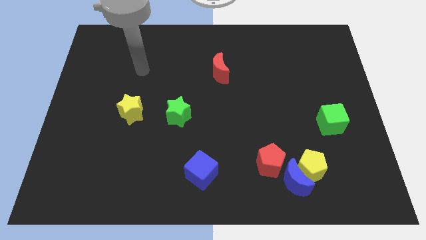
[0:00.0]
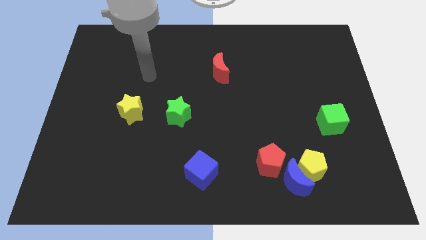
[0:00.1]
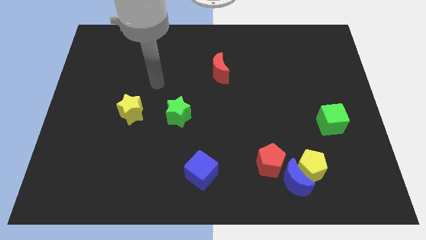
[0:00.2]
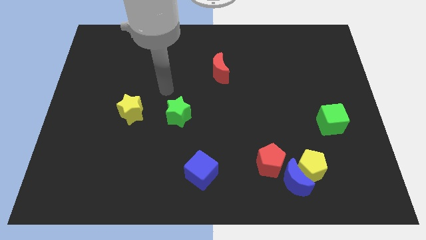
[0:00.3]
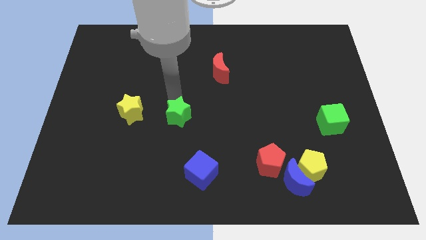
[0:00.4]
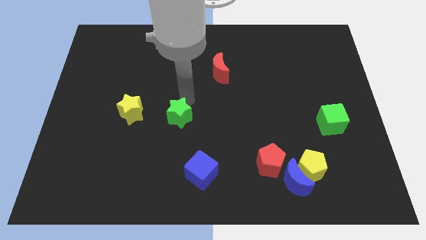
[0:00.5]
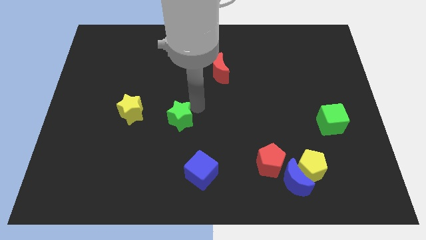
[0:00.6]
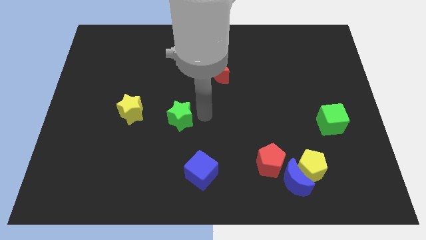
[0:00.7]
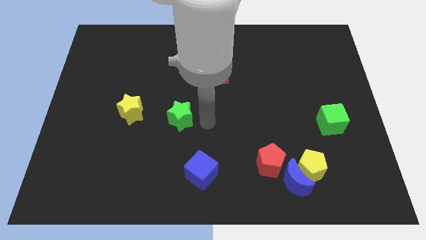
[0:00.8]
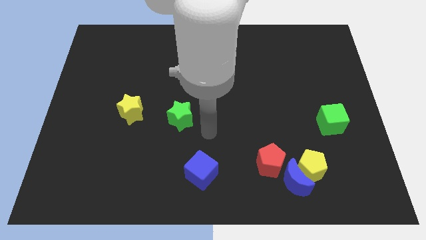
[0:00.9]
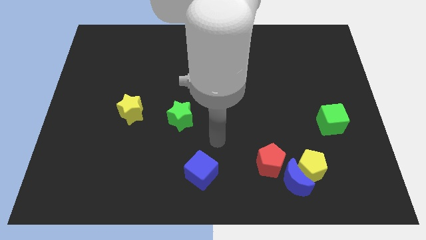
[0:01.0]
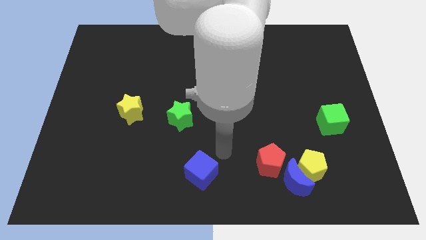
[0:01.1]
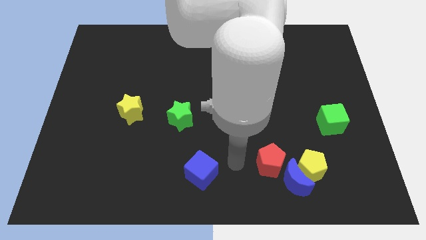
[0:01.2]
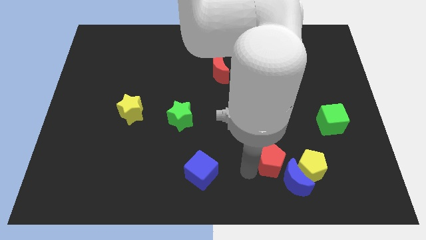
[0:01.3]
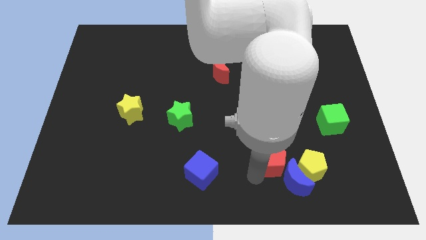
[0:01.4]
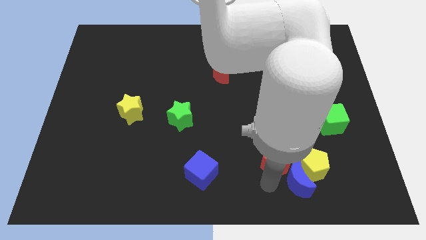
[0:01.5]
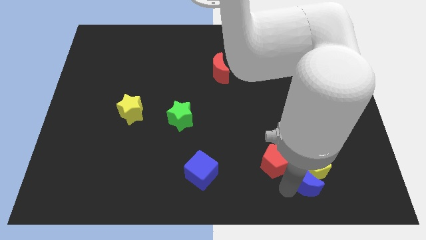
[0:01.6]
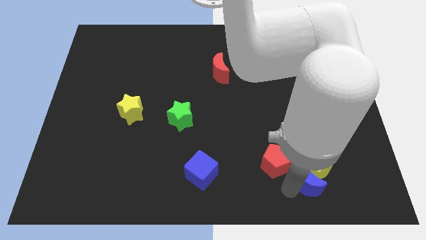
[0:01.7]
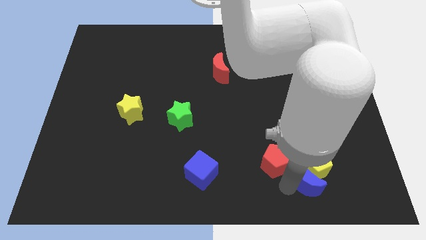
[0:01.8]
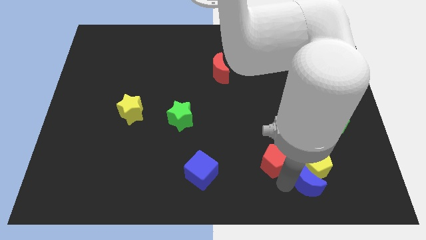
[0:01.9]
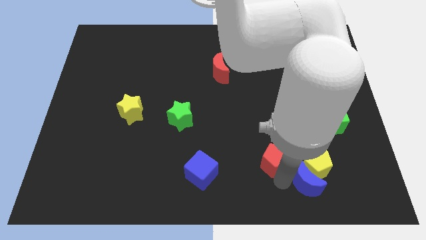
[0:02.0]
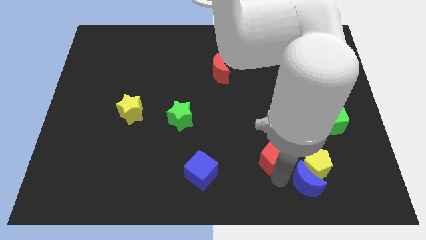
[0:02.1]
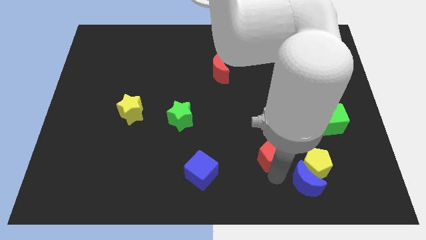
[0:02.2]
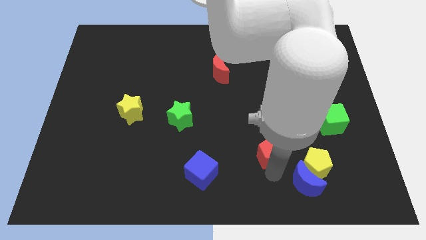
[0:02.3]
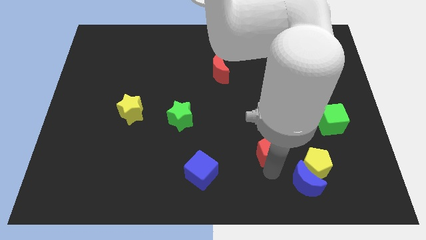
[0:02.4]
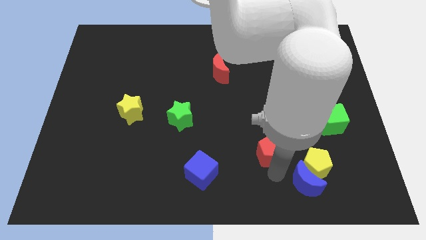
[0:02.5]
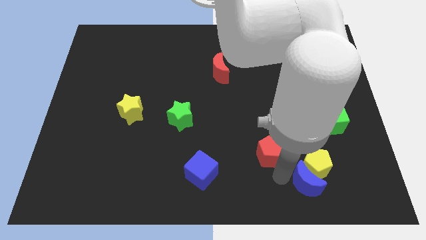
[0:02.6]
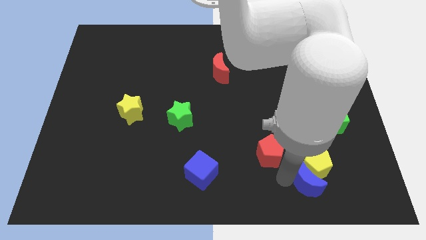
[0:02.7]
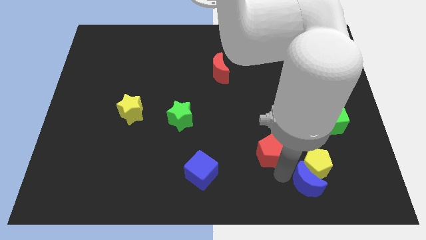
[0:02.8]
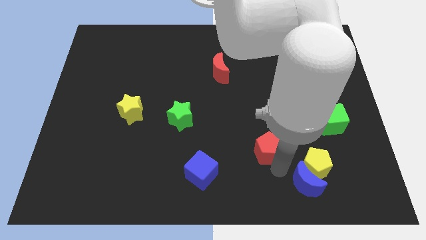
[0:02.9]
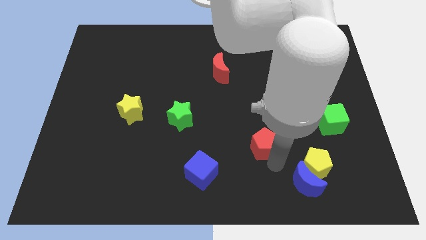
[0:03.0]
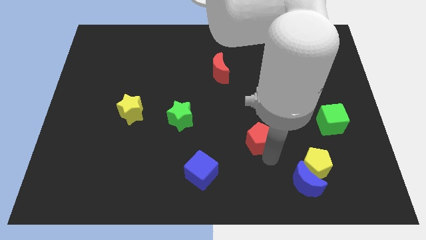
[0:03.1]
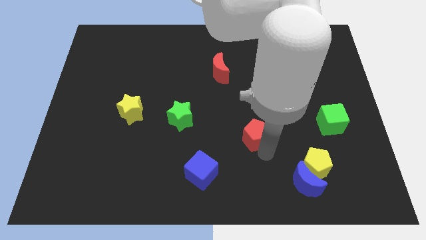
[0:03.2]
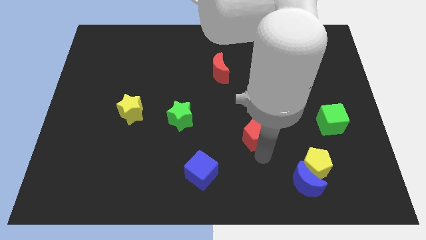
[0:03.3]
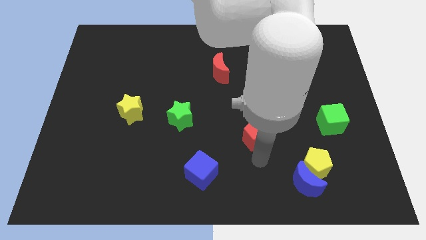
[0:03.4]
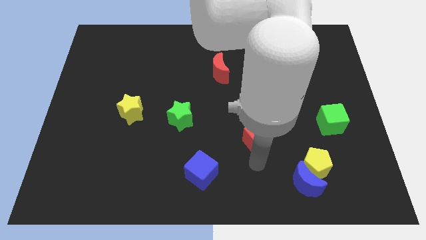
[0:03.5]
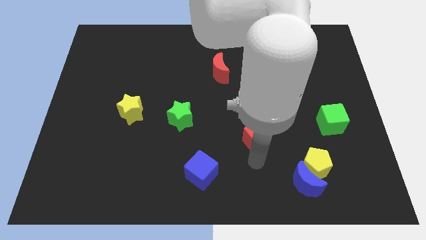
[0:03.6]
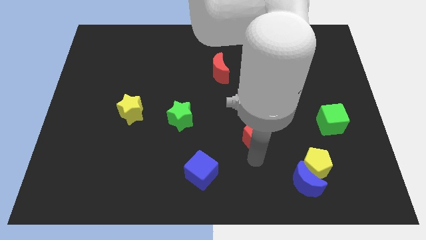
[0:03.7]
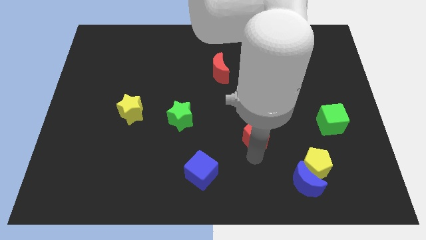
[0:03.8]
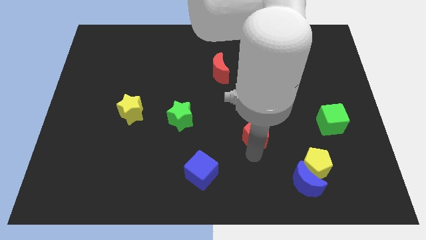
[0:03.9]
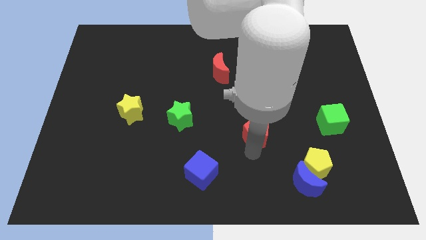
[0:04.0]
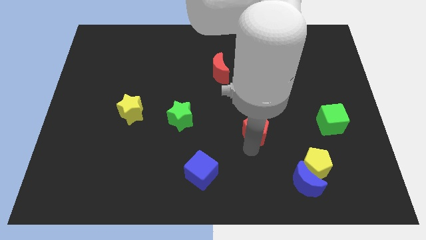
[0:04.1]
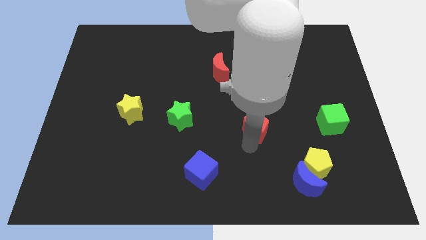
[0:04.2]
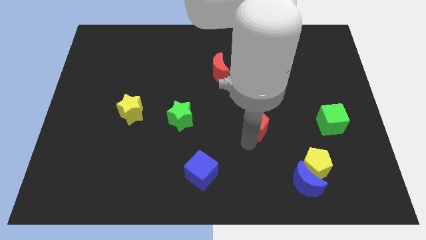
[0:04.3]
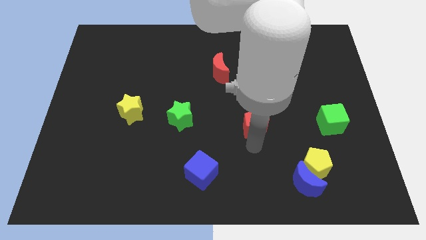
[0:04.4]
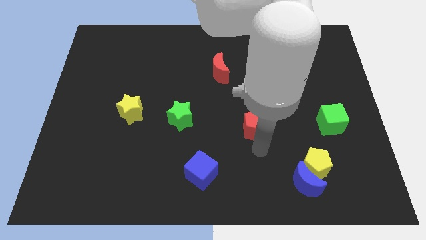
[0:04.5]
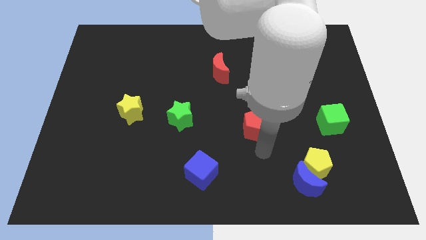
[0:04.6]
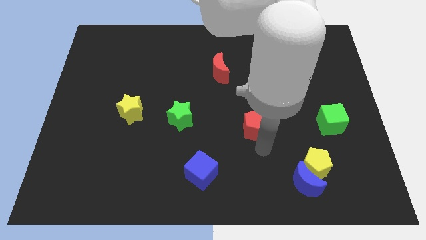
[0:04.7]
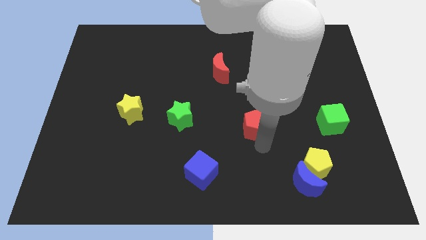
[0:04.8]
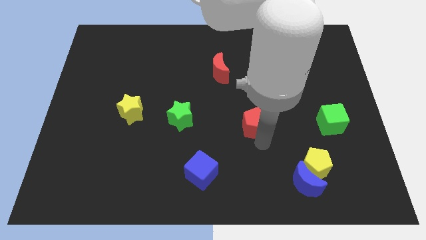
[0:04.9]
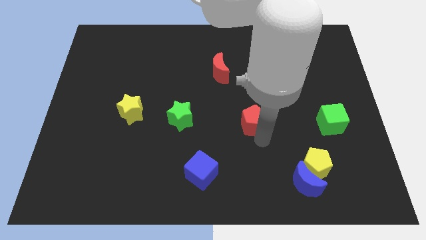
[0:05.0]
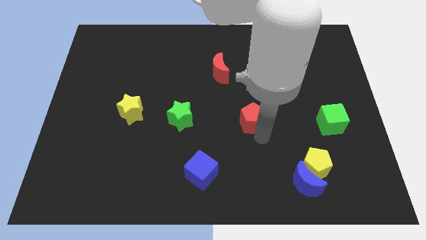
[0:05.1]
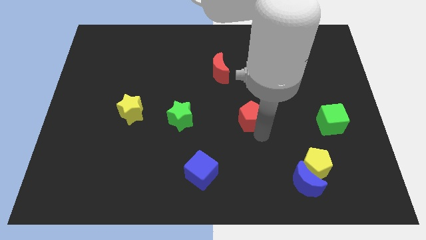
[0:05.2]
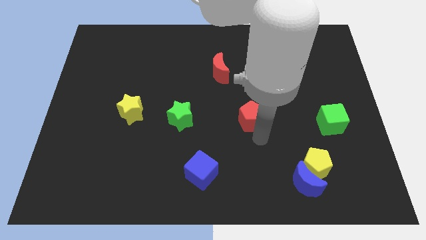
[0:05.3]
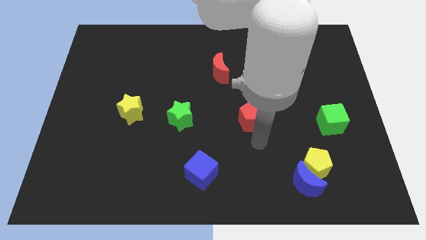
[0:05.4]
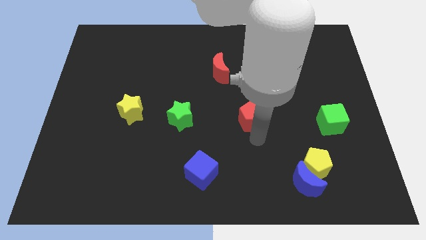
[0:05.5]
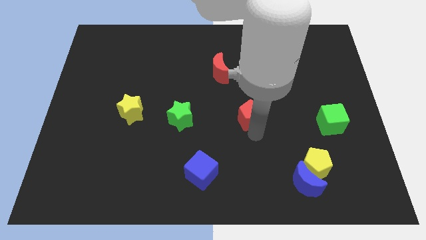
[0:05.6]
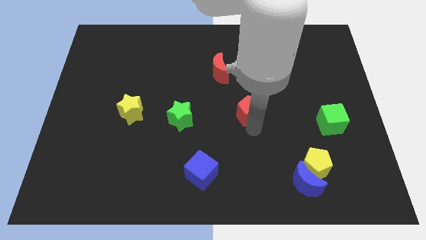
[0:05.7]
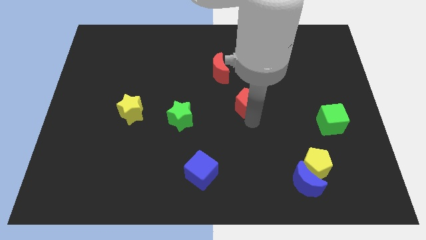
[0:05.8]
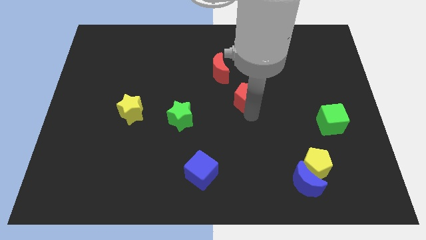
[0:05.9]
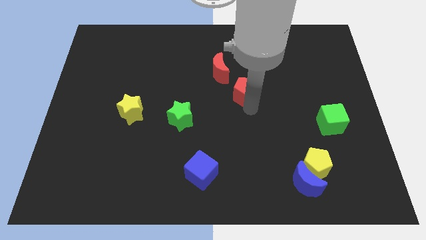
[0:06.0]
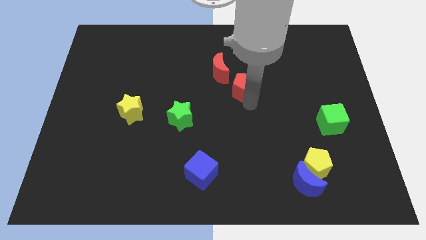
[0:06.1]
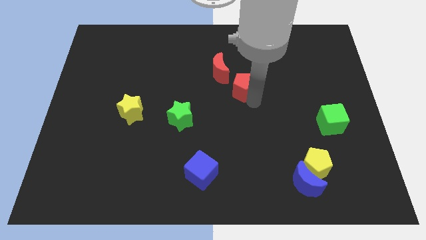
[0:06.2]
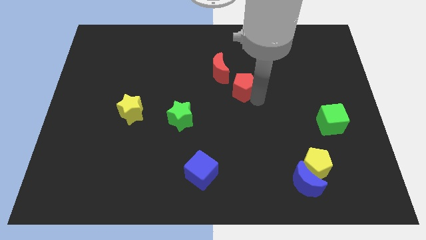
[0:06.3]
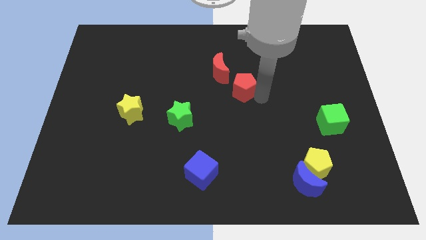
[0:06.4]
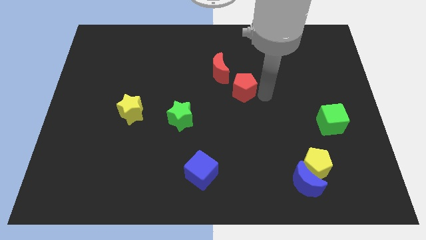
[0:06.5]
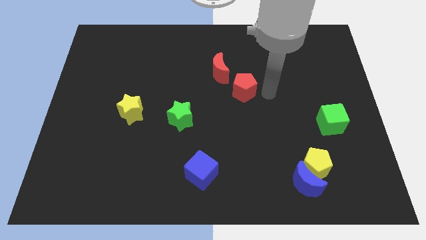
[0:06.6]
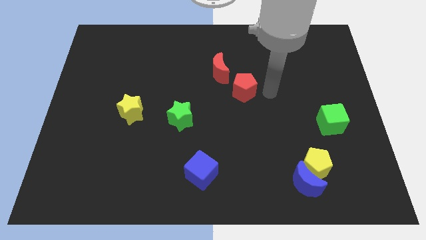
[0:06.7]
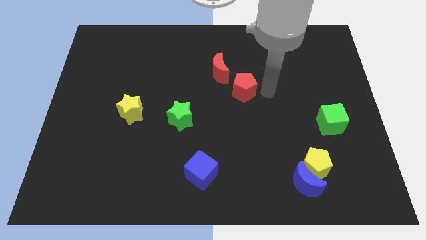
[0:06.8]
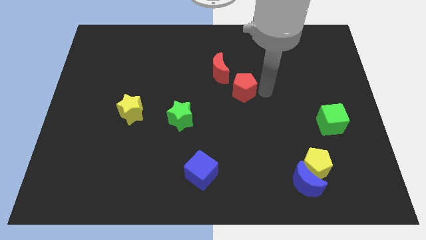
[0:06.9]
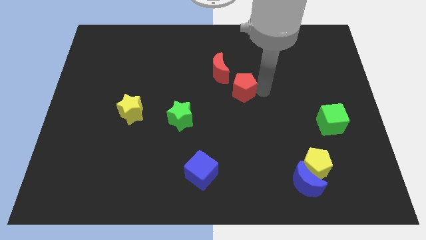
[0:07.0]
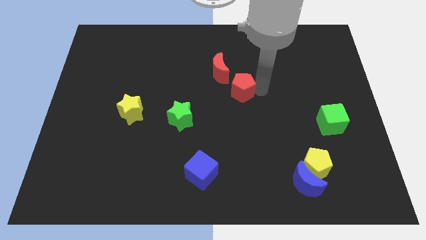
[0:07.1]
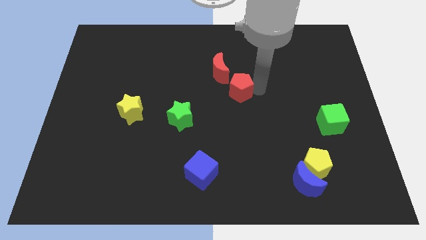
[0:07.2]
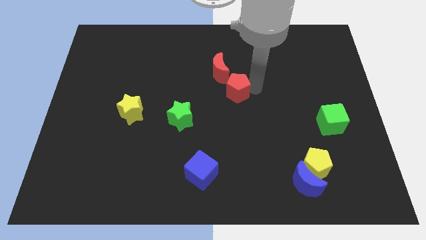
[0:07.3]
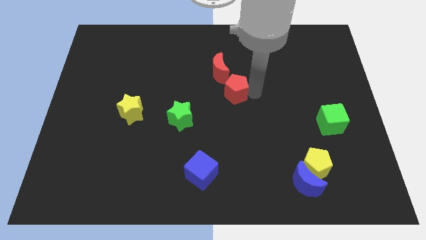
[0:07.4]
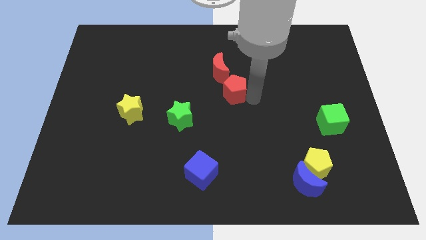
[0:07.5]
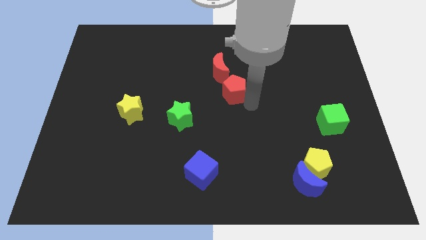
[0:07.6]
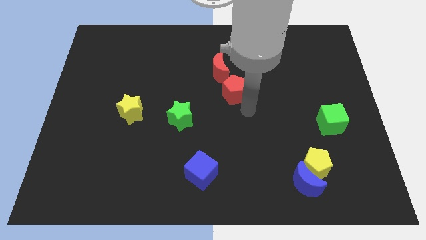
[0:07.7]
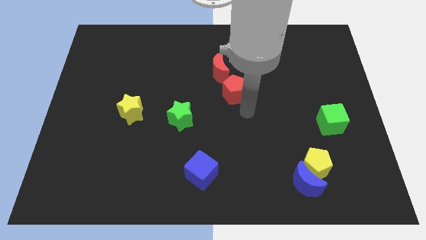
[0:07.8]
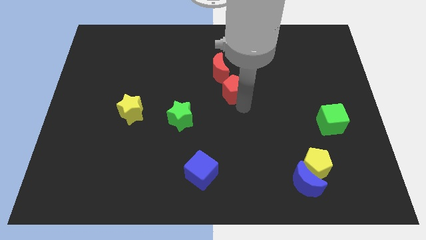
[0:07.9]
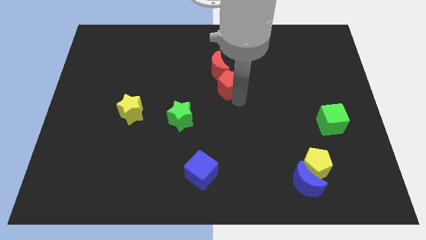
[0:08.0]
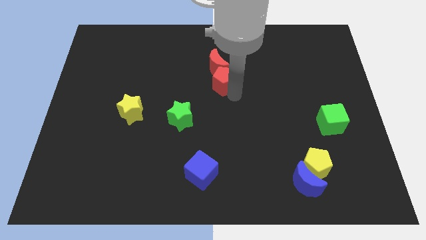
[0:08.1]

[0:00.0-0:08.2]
slide the red pentagon close to the red moon
